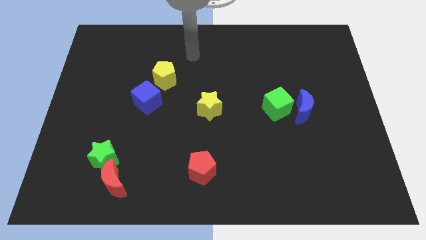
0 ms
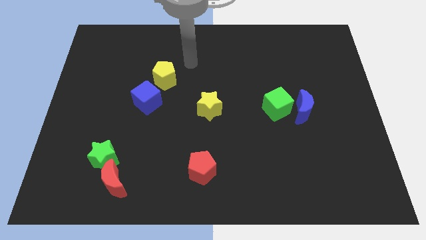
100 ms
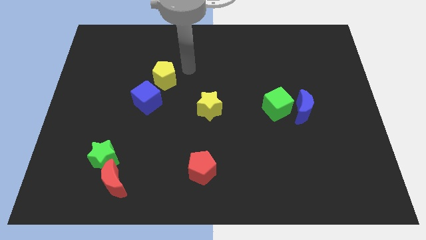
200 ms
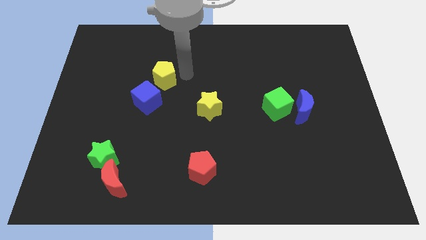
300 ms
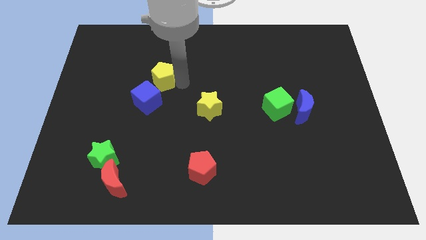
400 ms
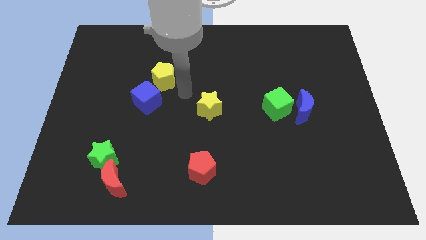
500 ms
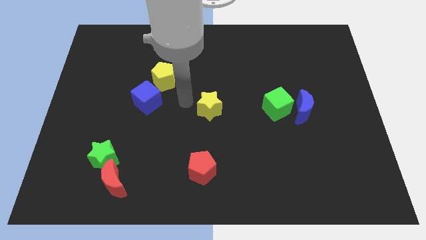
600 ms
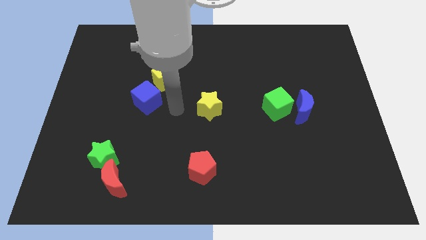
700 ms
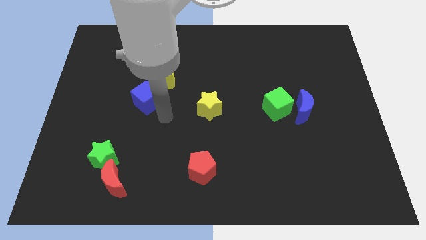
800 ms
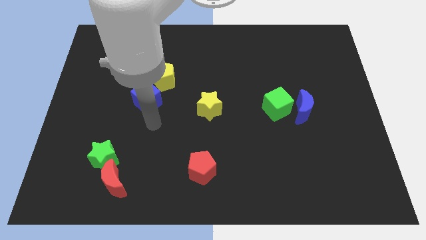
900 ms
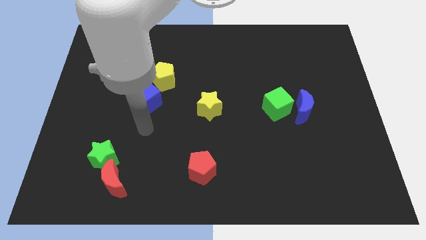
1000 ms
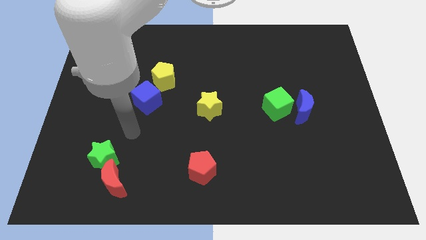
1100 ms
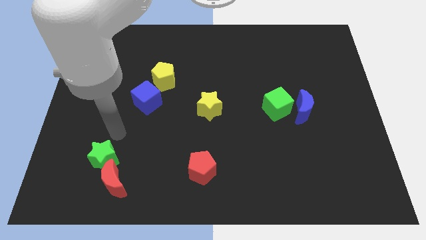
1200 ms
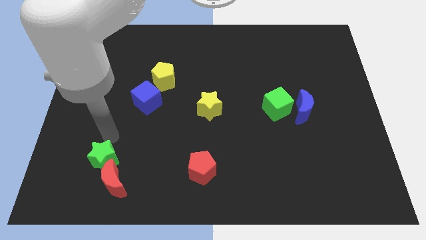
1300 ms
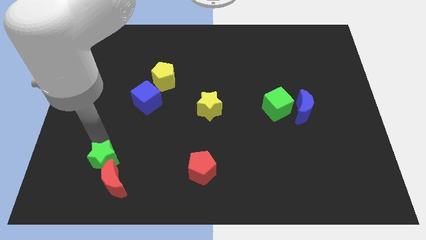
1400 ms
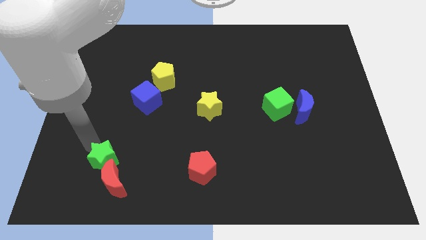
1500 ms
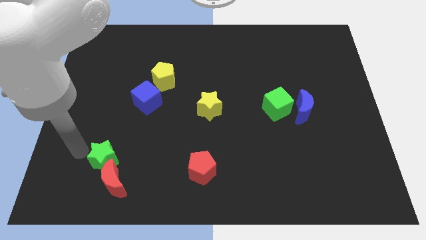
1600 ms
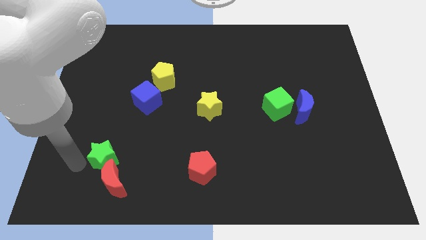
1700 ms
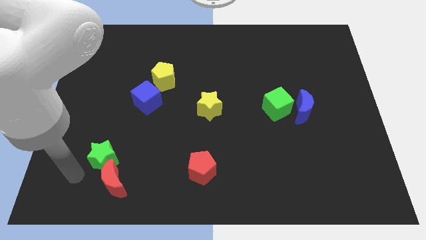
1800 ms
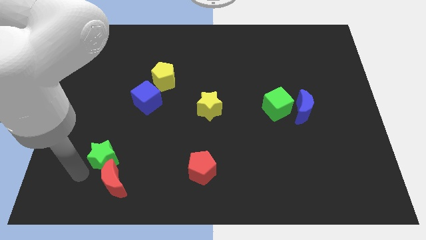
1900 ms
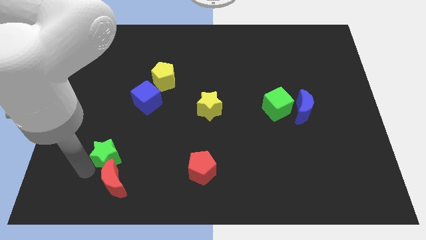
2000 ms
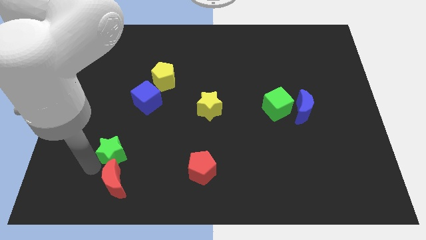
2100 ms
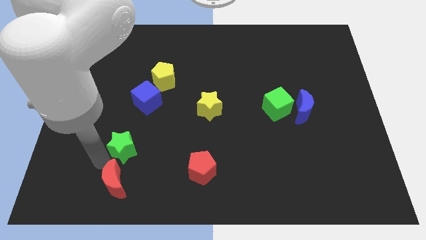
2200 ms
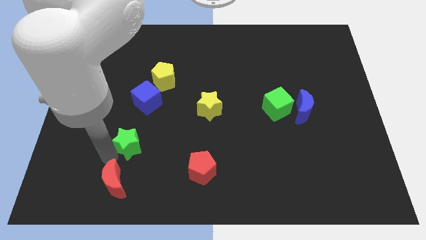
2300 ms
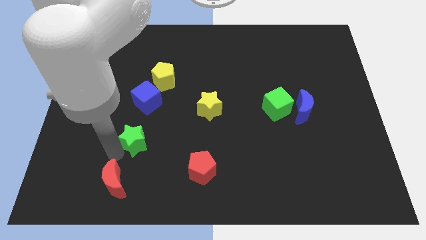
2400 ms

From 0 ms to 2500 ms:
slide the green star upwards and right diagonally somewhat

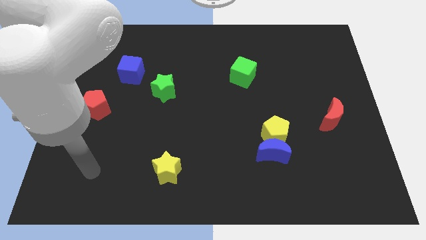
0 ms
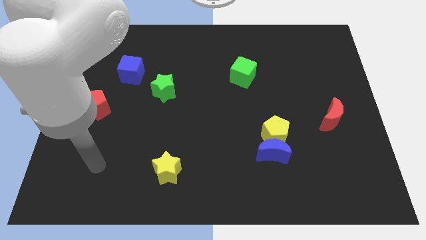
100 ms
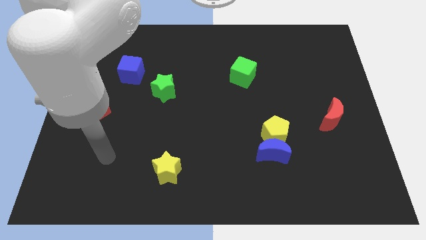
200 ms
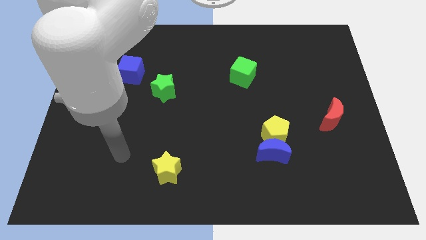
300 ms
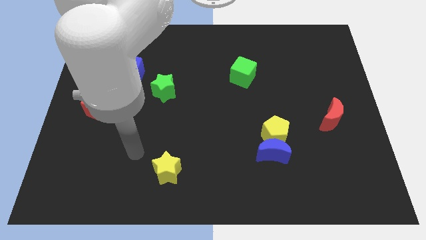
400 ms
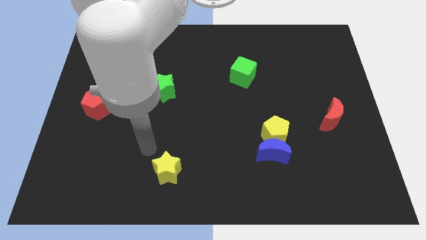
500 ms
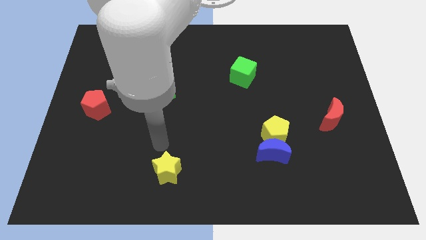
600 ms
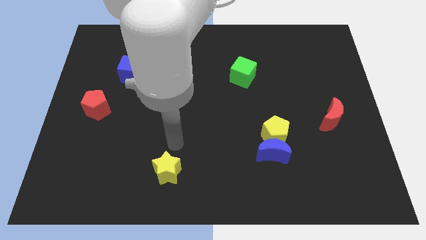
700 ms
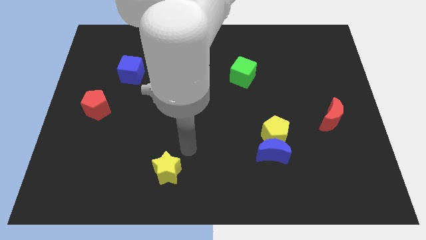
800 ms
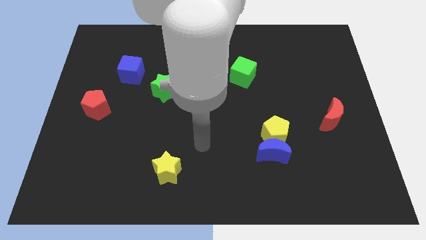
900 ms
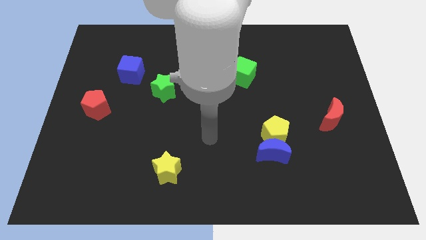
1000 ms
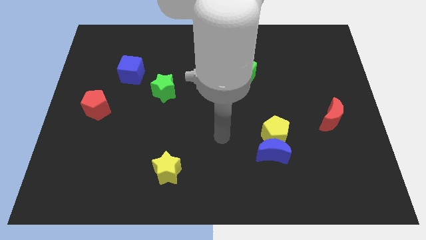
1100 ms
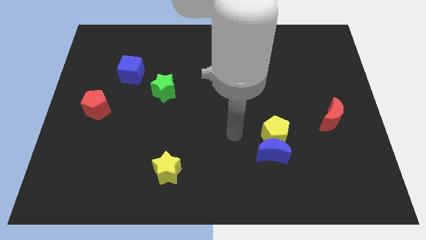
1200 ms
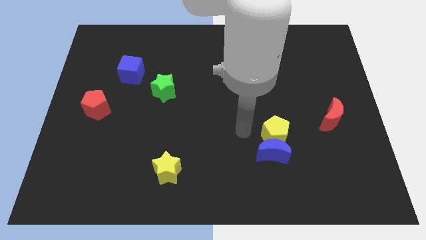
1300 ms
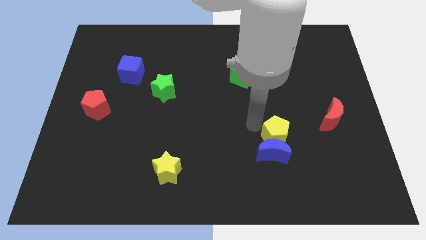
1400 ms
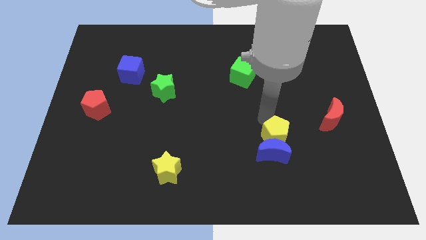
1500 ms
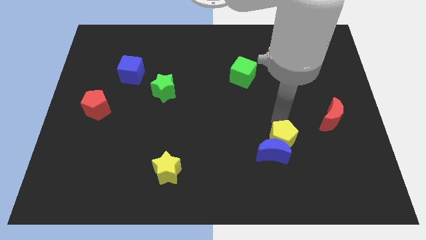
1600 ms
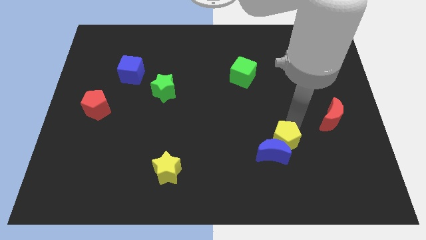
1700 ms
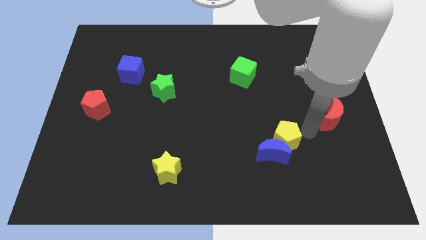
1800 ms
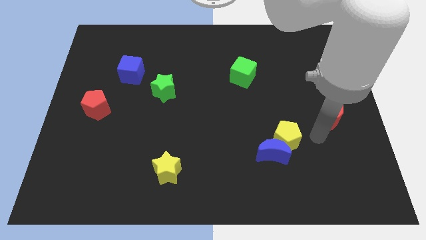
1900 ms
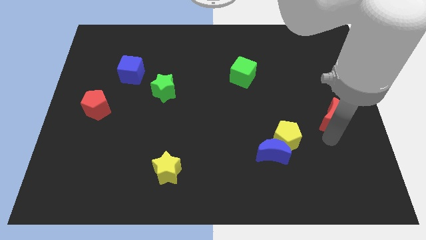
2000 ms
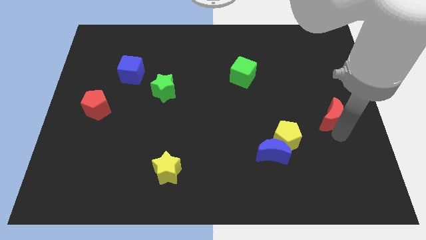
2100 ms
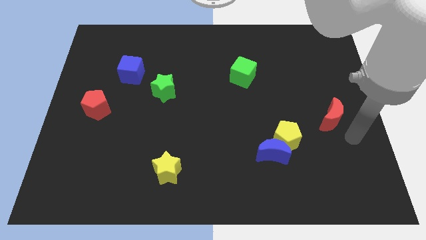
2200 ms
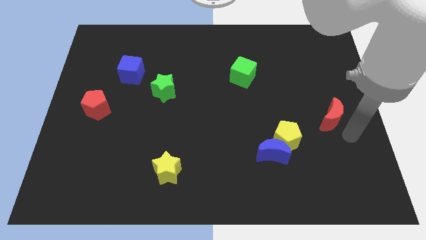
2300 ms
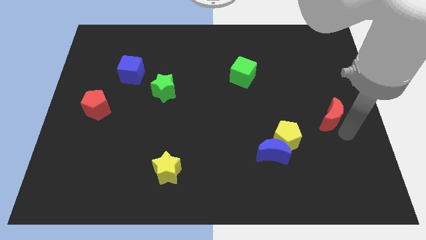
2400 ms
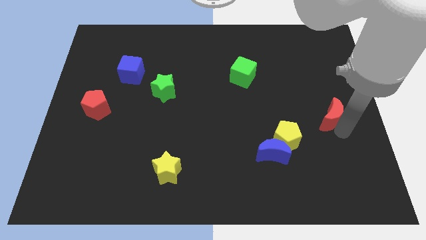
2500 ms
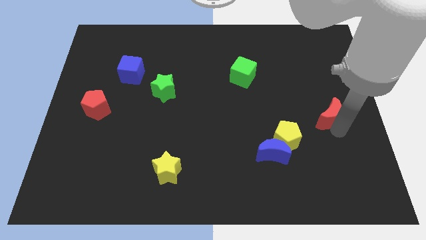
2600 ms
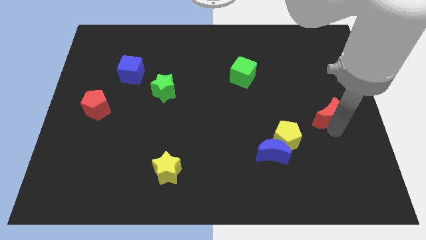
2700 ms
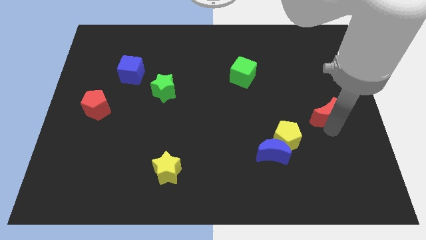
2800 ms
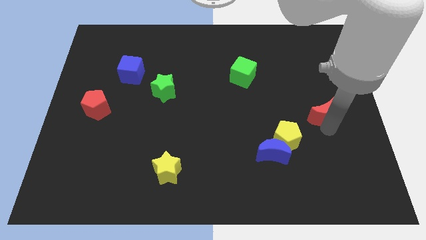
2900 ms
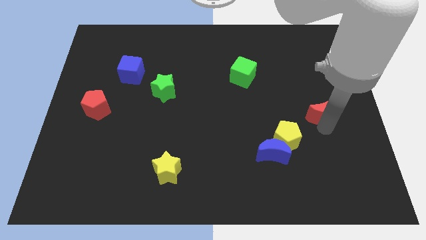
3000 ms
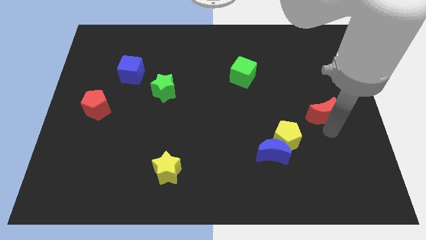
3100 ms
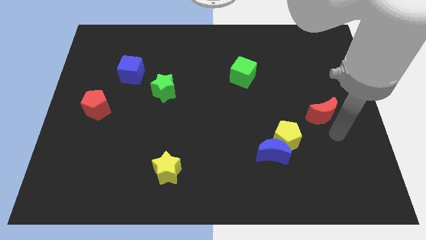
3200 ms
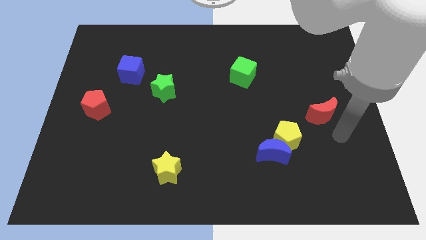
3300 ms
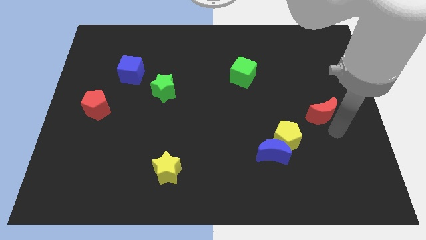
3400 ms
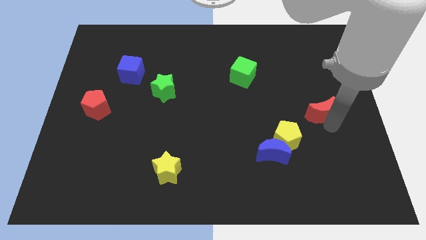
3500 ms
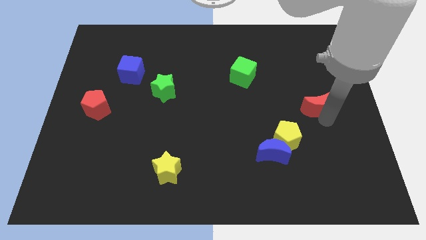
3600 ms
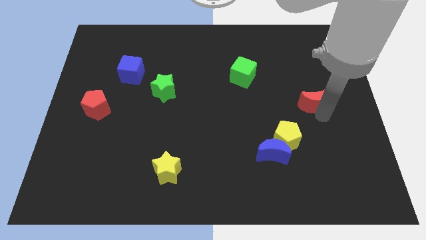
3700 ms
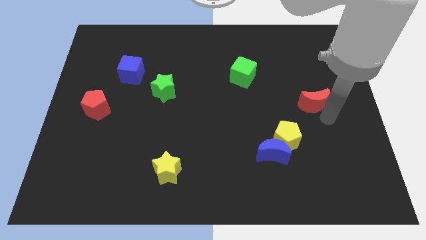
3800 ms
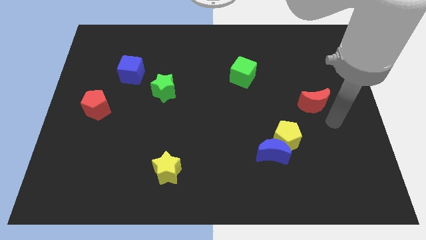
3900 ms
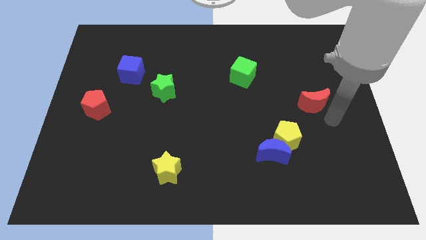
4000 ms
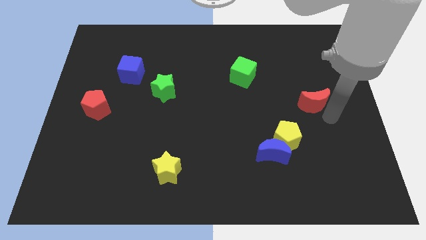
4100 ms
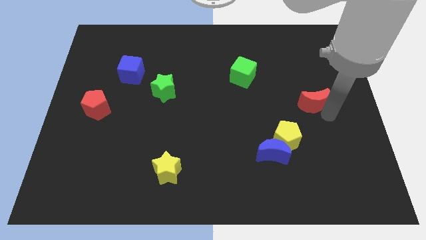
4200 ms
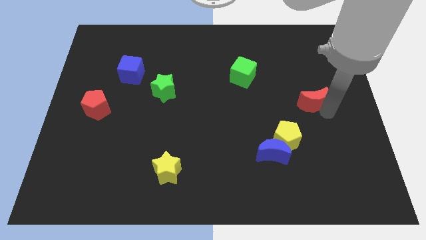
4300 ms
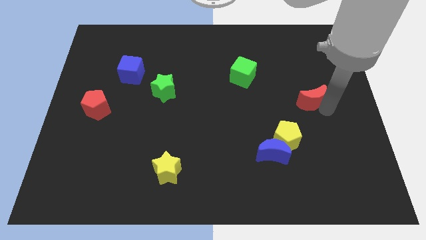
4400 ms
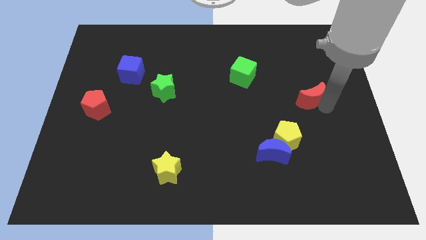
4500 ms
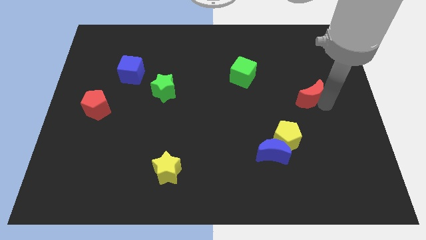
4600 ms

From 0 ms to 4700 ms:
push the red moon a bit upwards and left diagonally

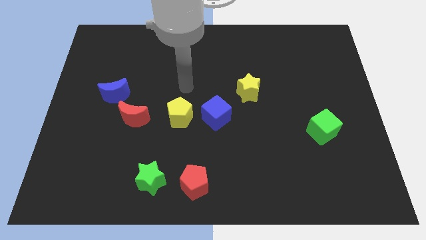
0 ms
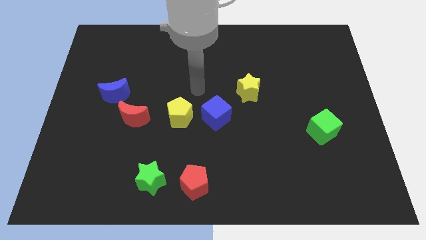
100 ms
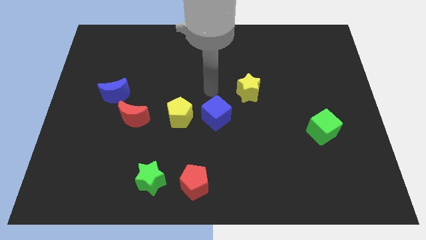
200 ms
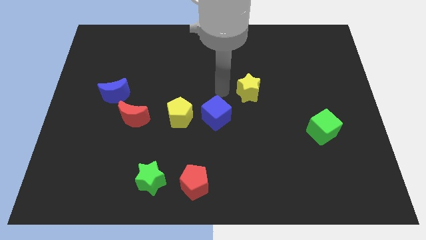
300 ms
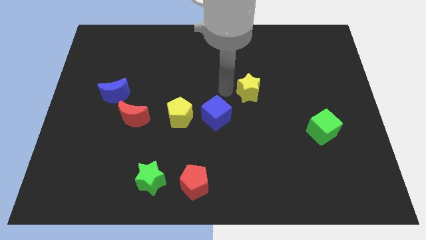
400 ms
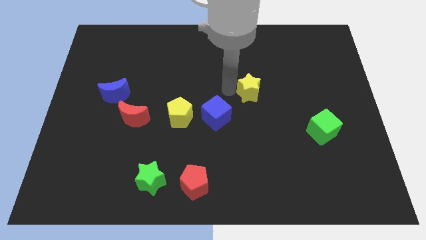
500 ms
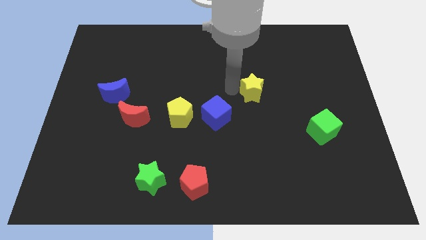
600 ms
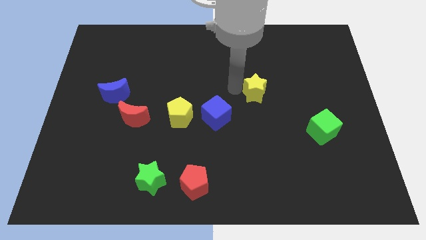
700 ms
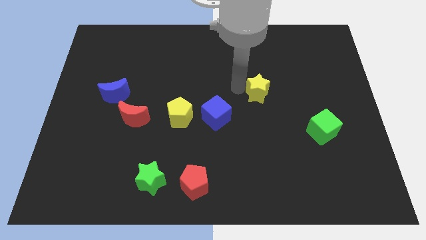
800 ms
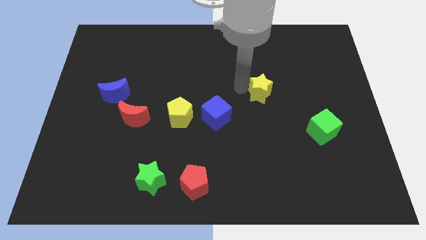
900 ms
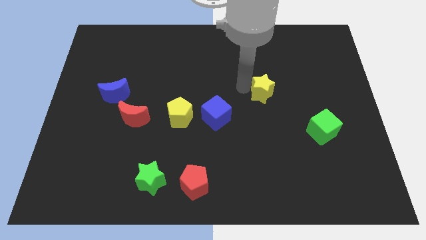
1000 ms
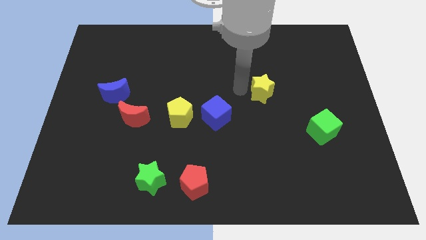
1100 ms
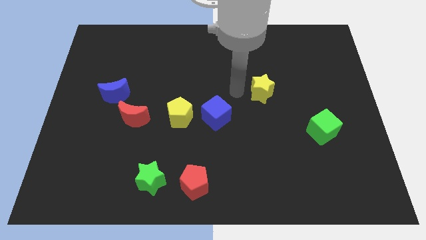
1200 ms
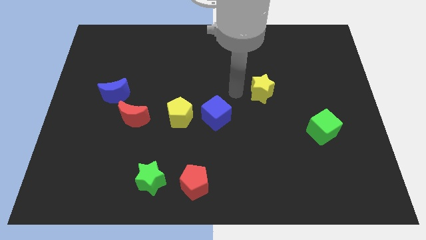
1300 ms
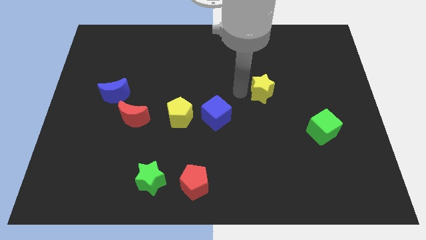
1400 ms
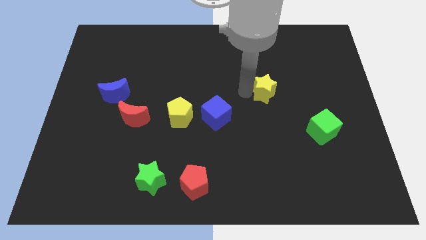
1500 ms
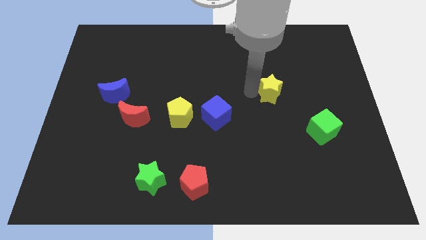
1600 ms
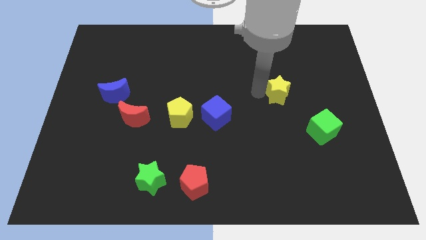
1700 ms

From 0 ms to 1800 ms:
slightly slide the yellow star right
